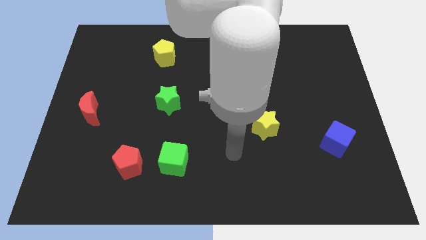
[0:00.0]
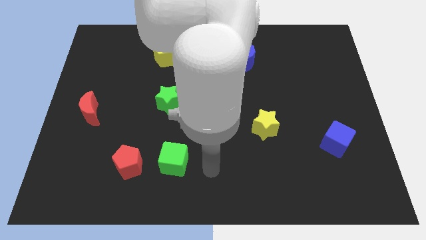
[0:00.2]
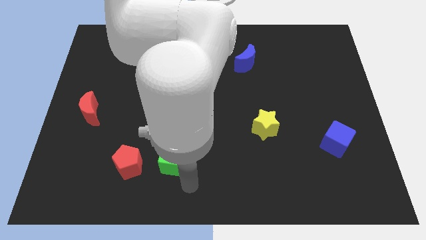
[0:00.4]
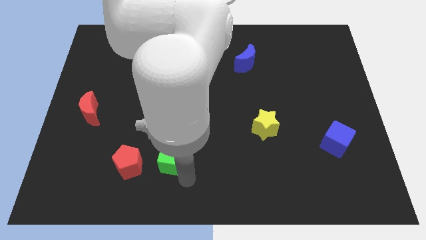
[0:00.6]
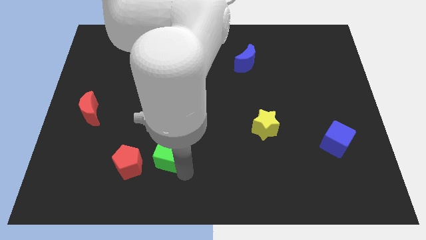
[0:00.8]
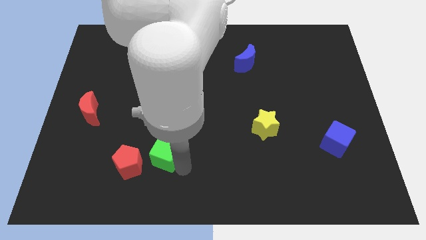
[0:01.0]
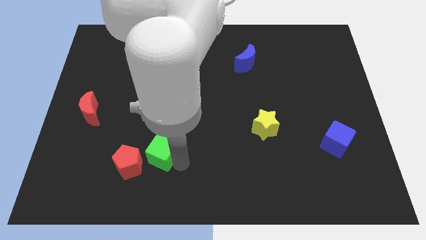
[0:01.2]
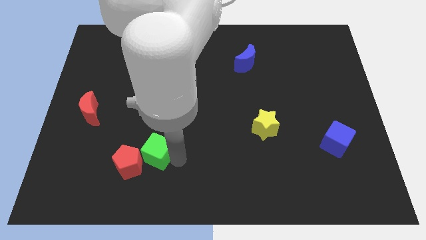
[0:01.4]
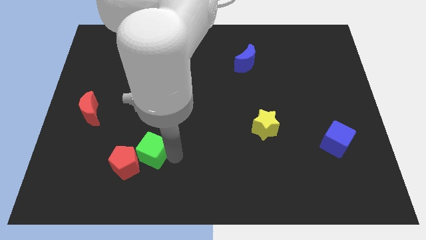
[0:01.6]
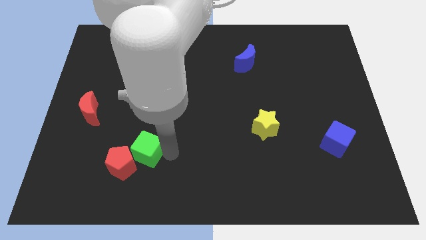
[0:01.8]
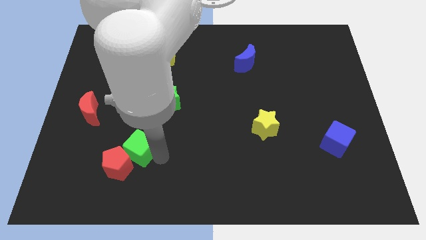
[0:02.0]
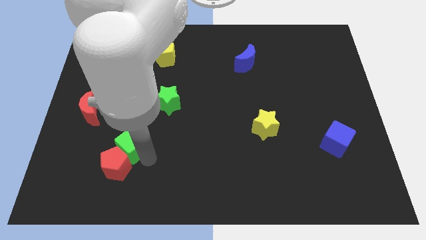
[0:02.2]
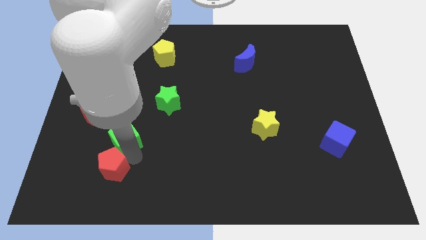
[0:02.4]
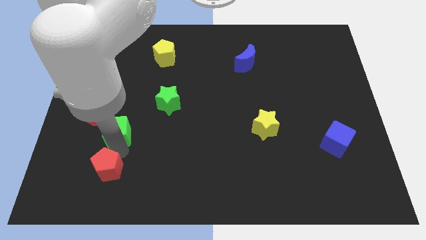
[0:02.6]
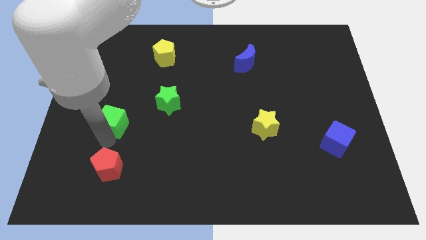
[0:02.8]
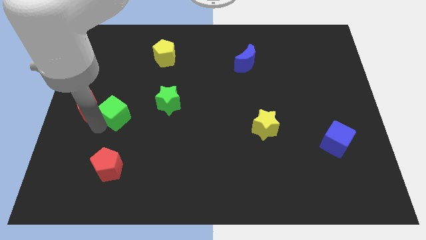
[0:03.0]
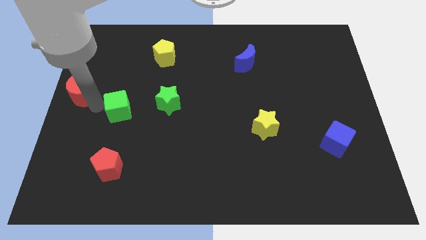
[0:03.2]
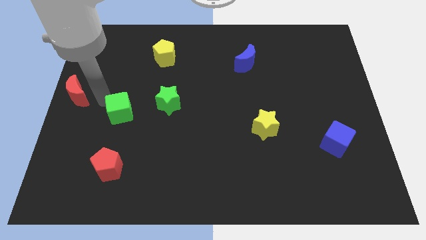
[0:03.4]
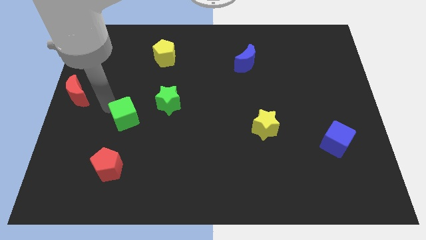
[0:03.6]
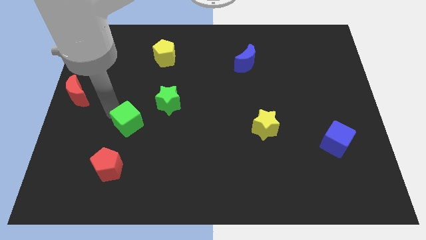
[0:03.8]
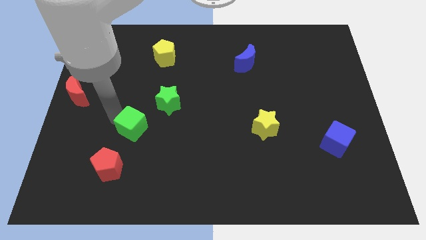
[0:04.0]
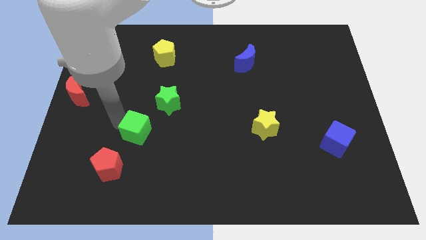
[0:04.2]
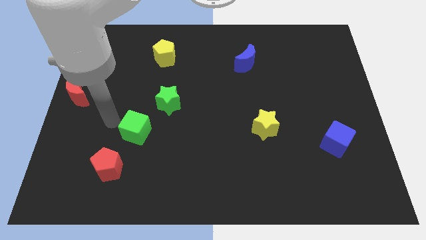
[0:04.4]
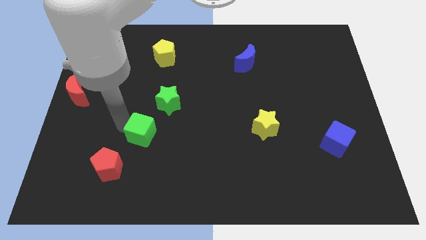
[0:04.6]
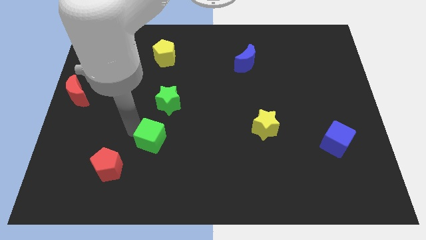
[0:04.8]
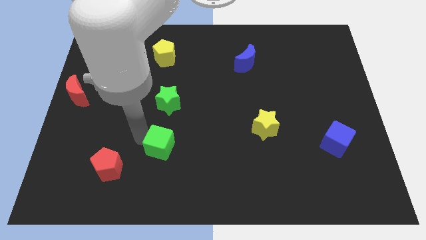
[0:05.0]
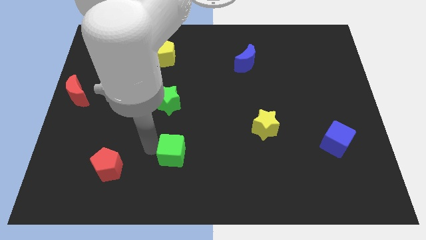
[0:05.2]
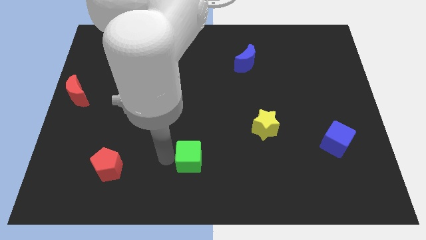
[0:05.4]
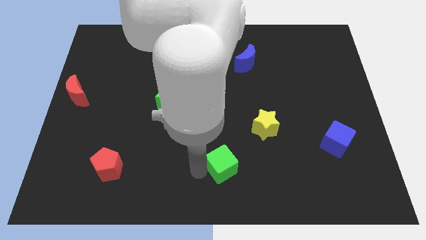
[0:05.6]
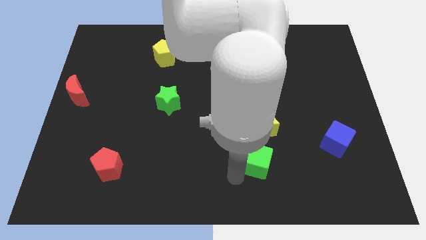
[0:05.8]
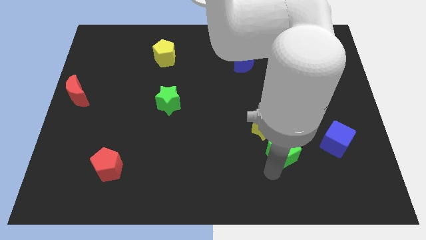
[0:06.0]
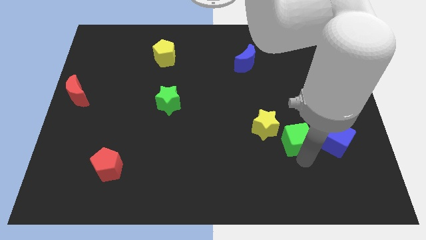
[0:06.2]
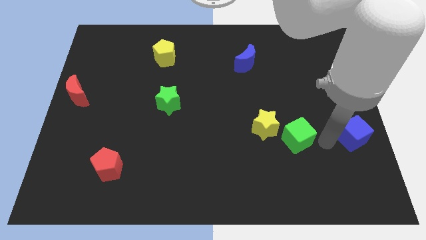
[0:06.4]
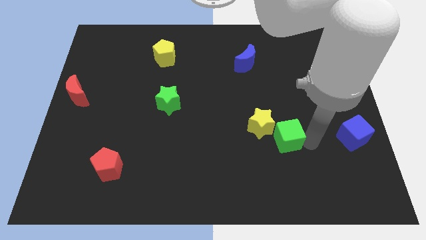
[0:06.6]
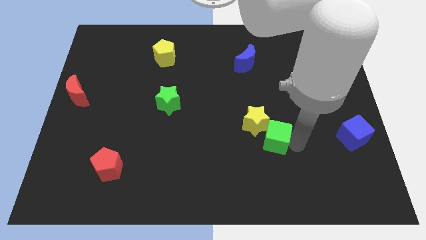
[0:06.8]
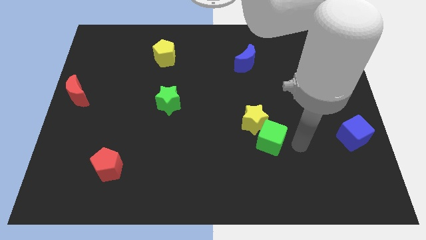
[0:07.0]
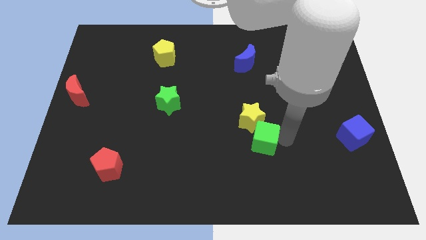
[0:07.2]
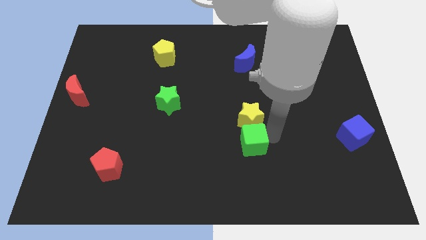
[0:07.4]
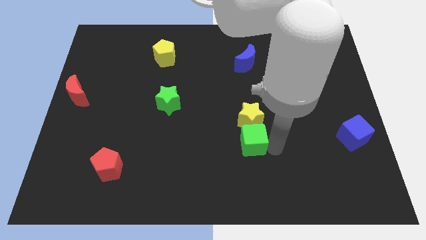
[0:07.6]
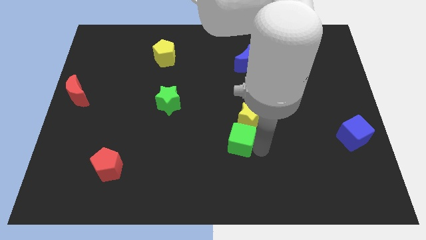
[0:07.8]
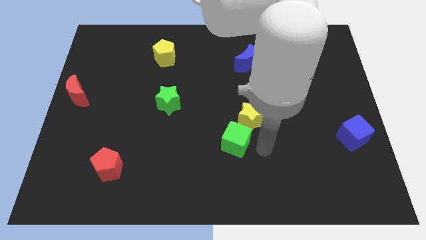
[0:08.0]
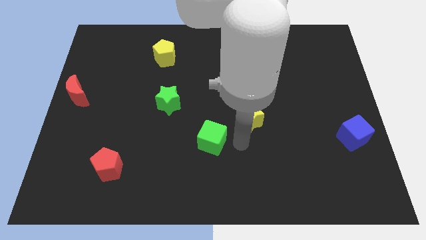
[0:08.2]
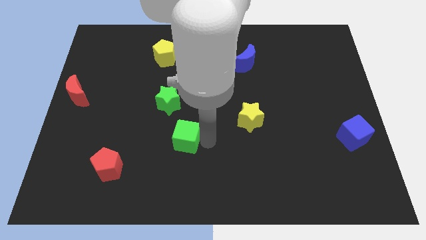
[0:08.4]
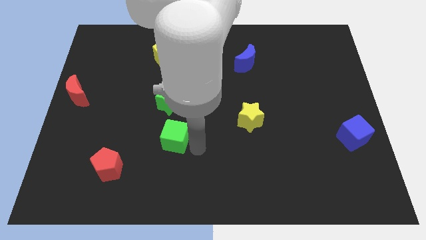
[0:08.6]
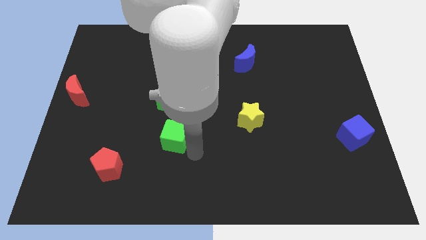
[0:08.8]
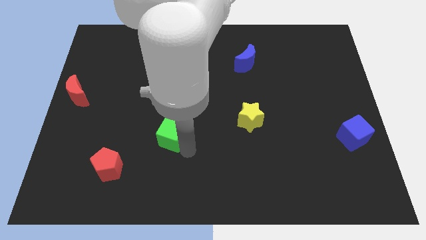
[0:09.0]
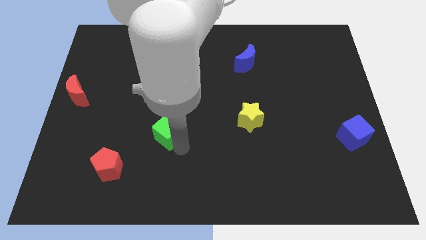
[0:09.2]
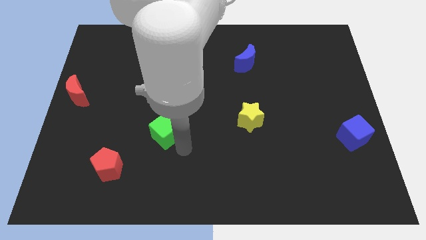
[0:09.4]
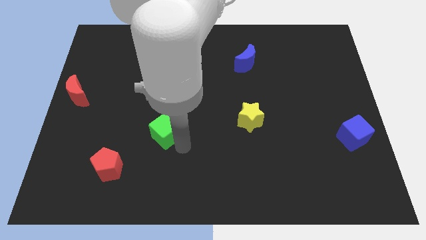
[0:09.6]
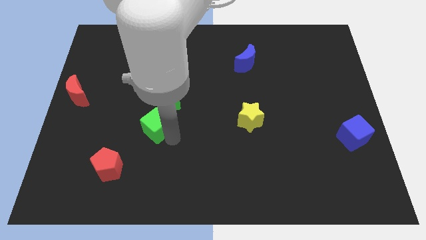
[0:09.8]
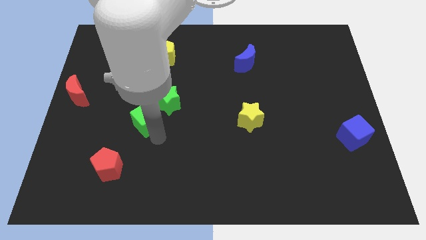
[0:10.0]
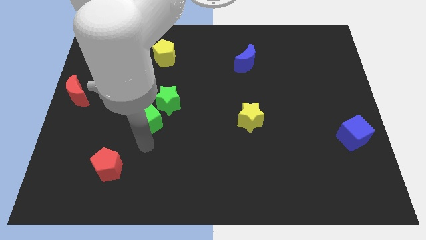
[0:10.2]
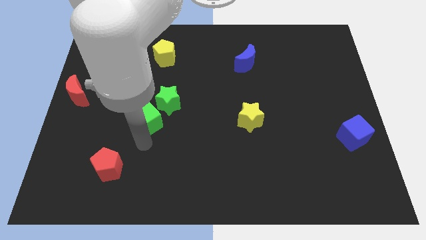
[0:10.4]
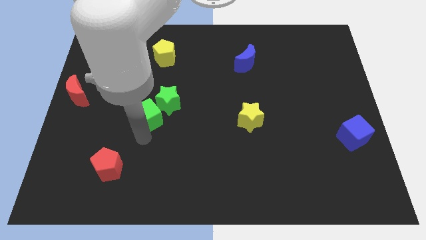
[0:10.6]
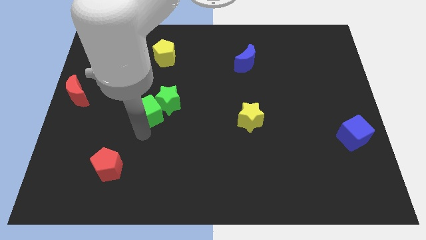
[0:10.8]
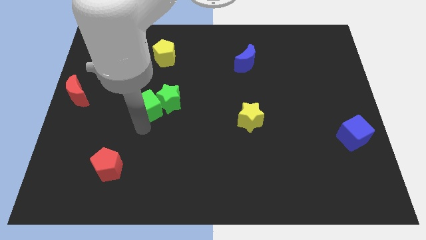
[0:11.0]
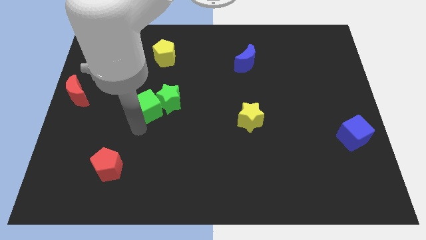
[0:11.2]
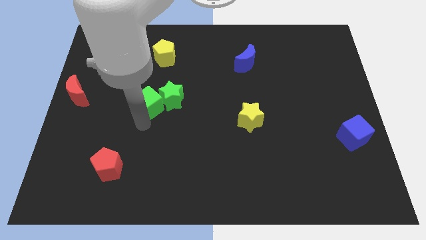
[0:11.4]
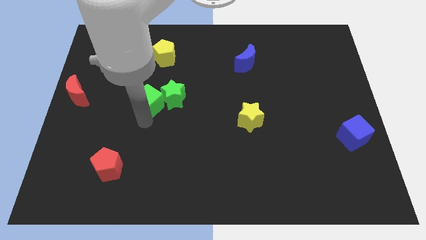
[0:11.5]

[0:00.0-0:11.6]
push the green cube to the bottom side of the yellow pentagon

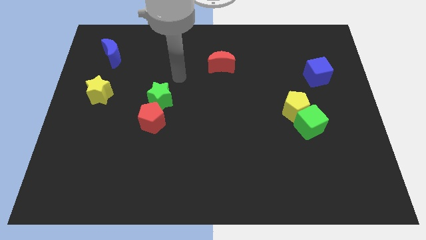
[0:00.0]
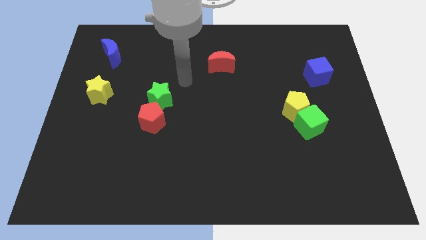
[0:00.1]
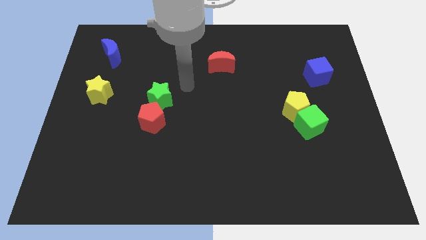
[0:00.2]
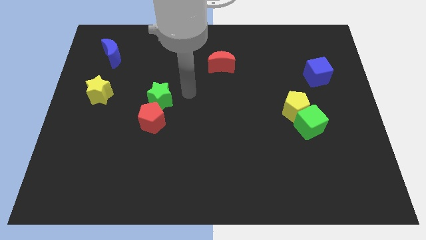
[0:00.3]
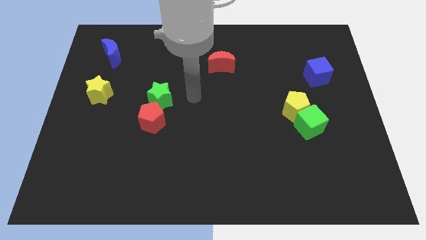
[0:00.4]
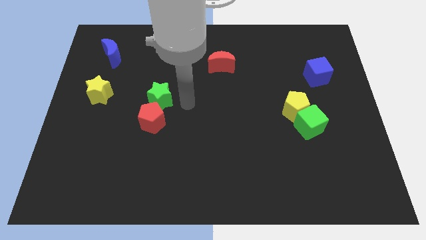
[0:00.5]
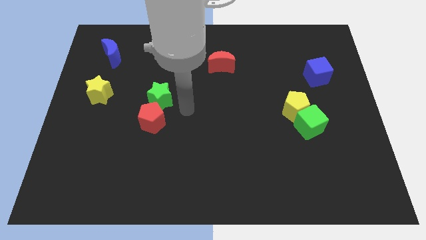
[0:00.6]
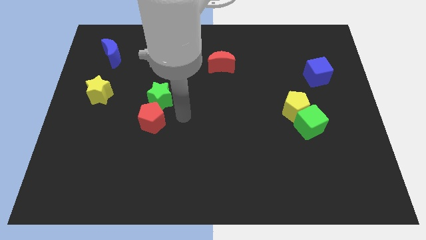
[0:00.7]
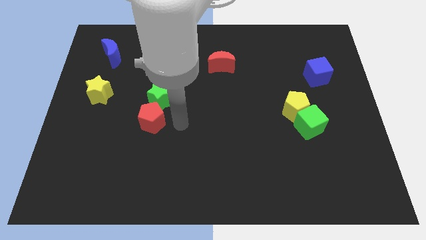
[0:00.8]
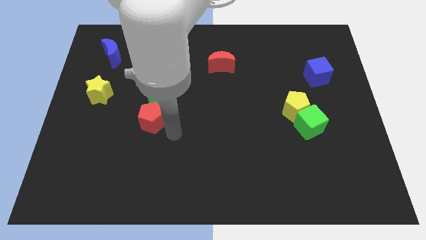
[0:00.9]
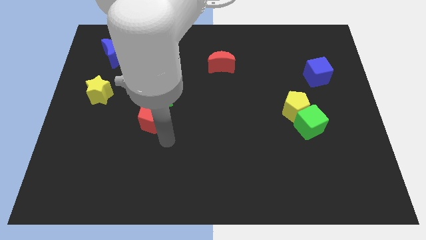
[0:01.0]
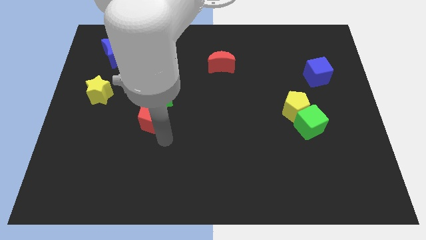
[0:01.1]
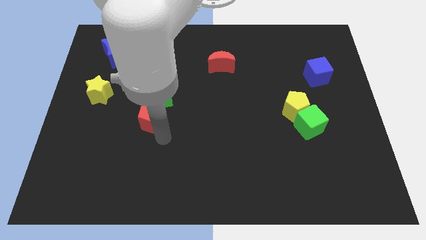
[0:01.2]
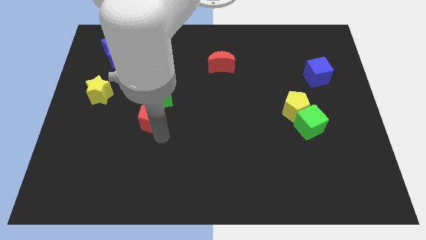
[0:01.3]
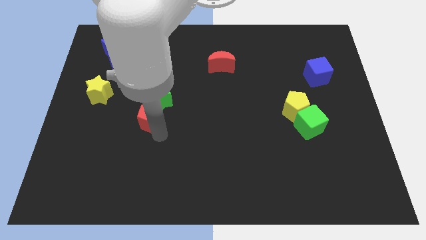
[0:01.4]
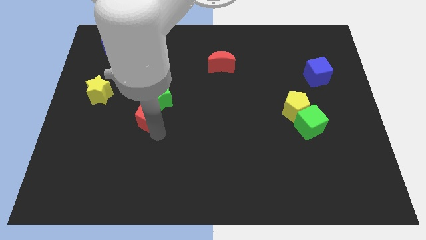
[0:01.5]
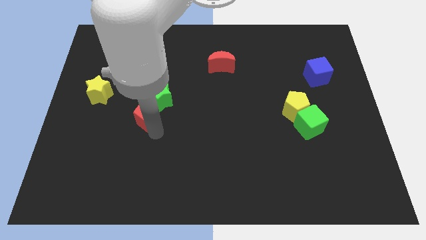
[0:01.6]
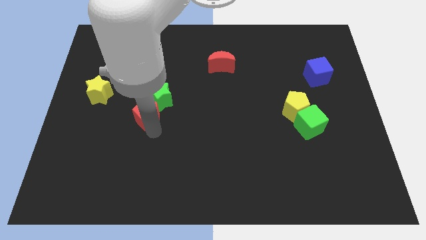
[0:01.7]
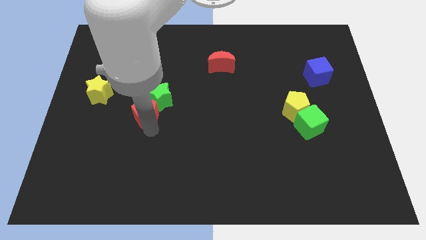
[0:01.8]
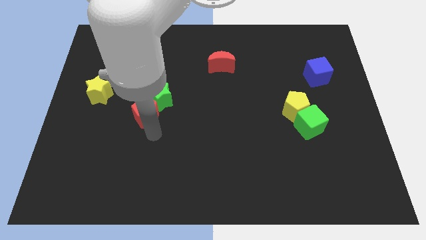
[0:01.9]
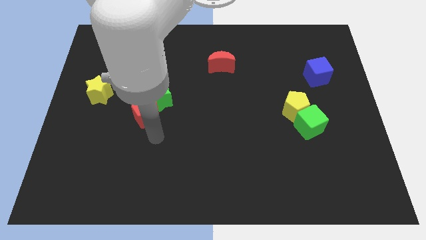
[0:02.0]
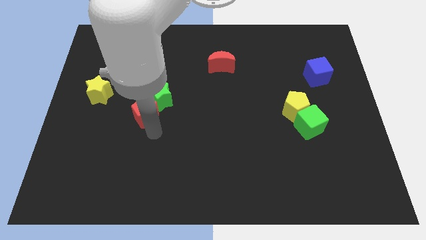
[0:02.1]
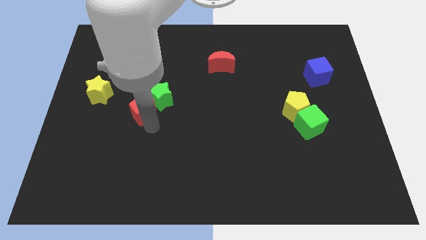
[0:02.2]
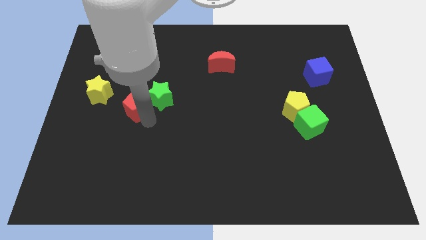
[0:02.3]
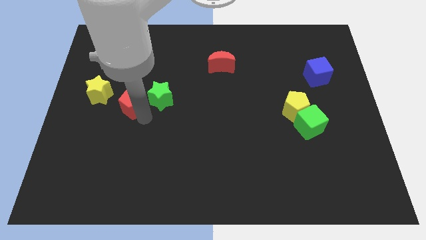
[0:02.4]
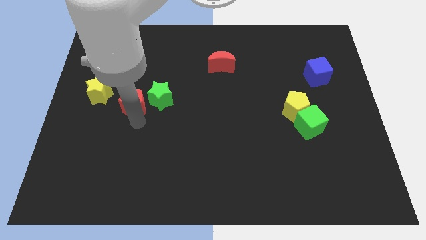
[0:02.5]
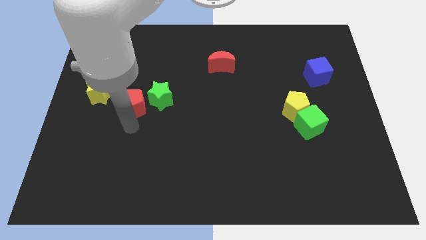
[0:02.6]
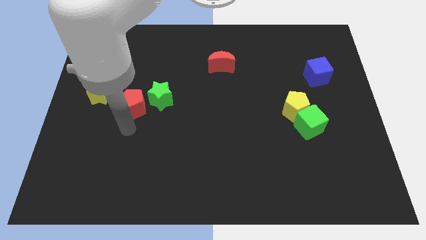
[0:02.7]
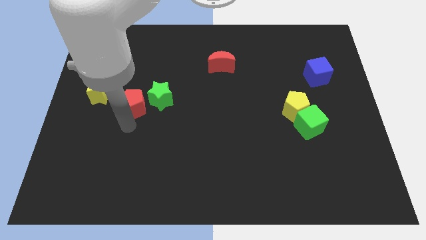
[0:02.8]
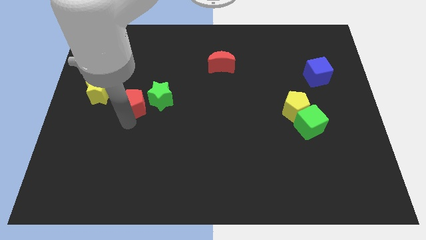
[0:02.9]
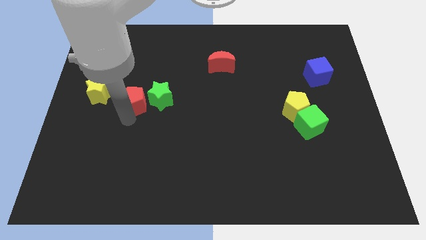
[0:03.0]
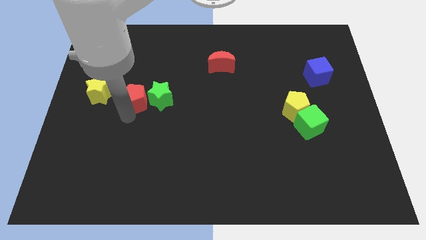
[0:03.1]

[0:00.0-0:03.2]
move the red pentagon diagonally up and to the left of the green star
